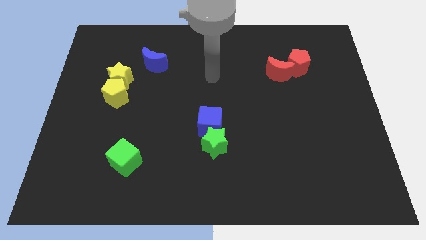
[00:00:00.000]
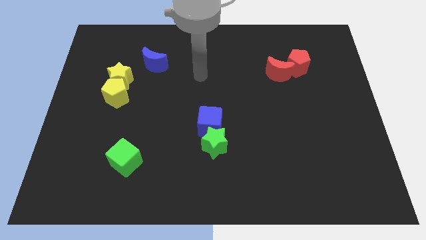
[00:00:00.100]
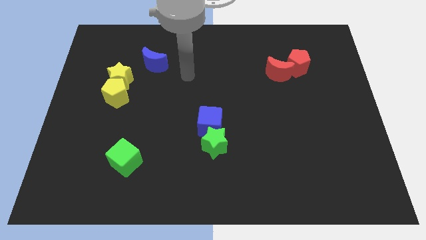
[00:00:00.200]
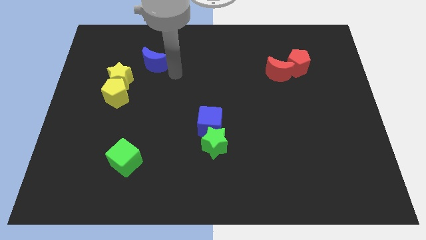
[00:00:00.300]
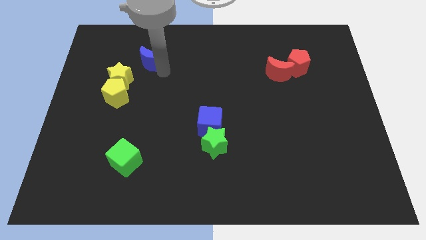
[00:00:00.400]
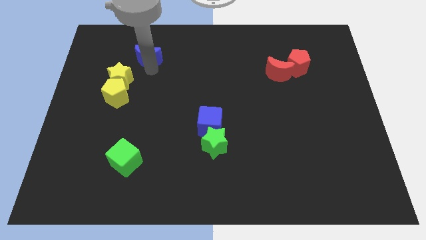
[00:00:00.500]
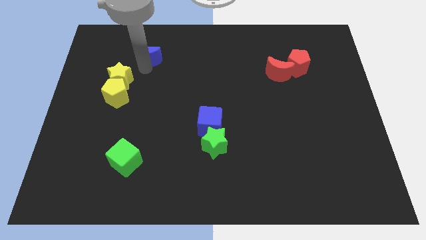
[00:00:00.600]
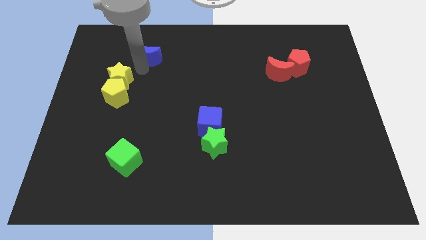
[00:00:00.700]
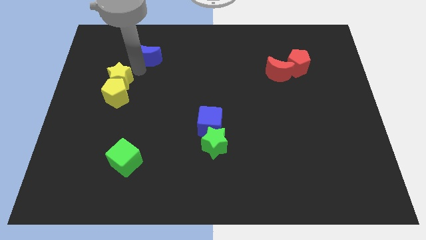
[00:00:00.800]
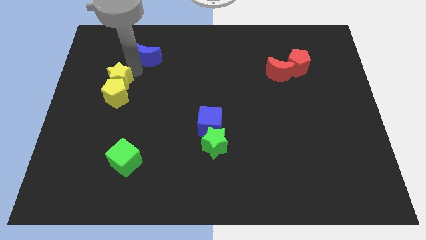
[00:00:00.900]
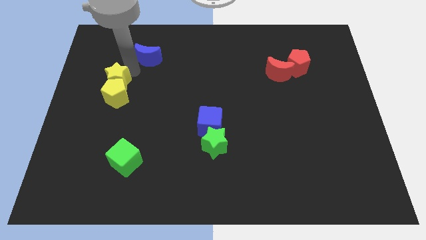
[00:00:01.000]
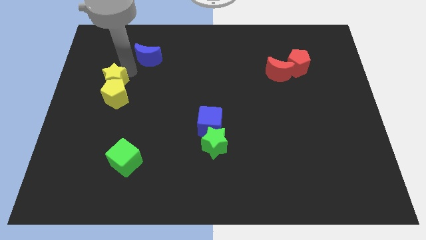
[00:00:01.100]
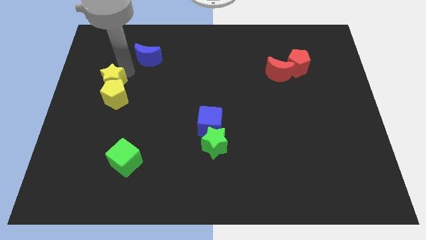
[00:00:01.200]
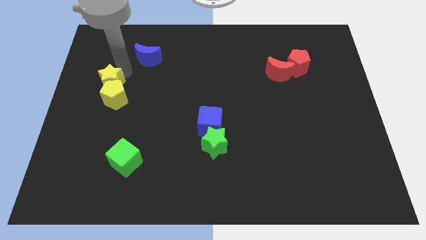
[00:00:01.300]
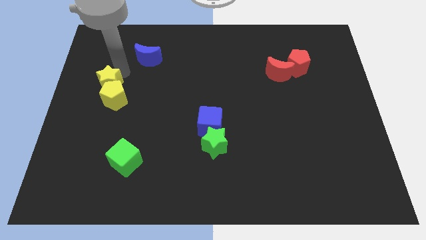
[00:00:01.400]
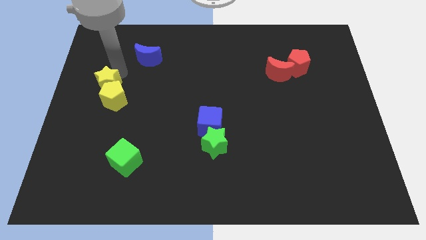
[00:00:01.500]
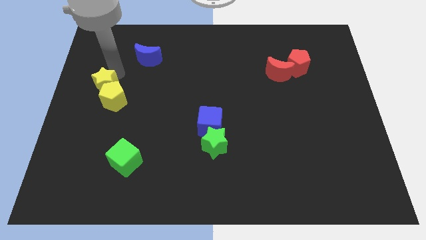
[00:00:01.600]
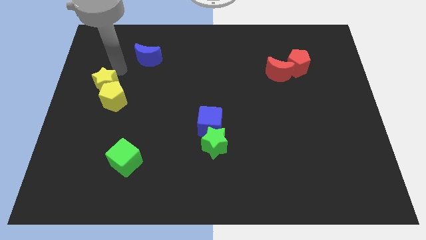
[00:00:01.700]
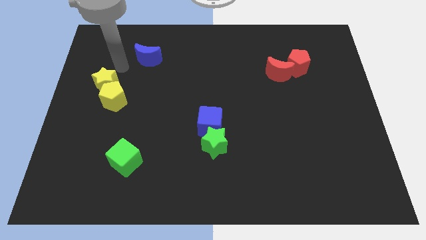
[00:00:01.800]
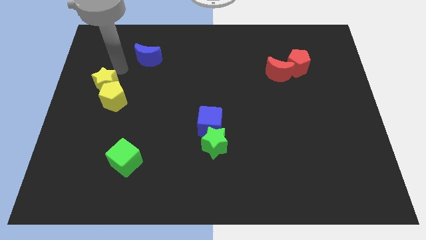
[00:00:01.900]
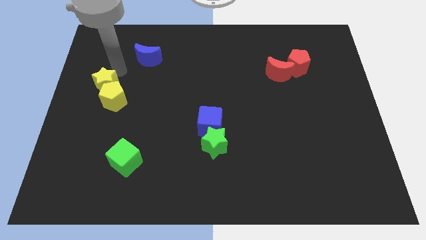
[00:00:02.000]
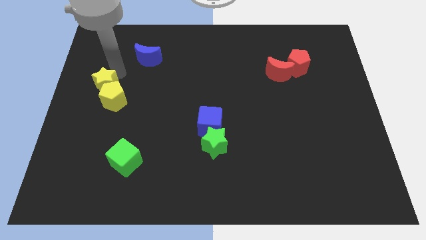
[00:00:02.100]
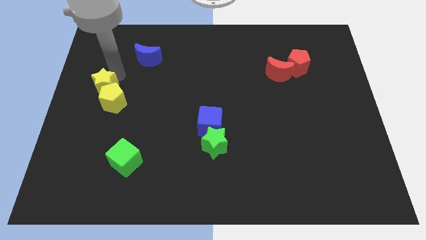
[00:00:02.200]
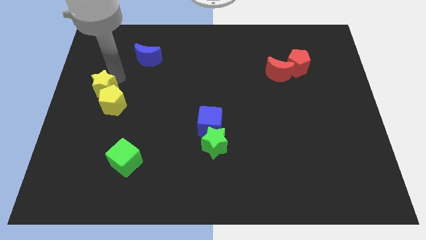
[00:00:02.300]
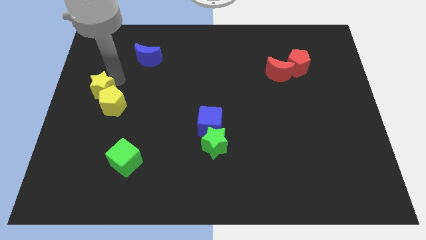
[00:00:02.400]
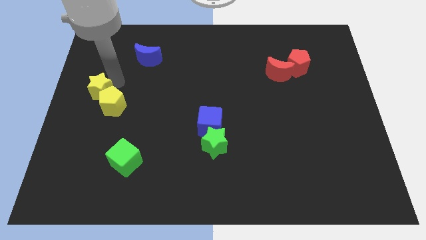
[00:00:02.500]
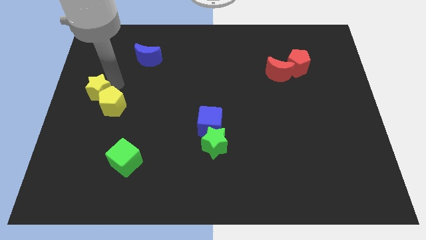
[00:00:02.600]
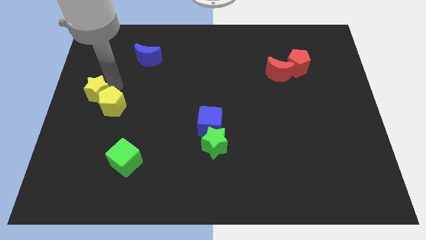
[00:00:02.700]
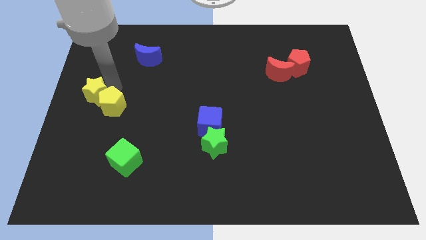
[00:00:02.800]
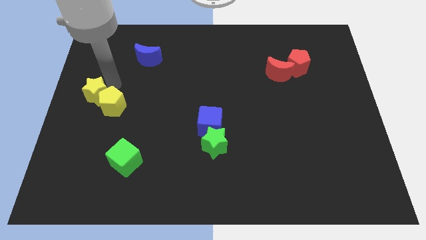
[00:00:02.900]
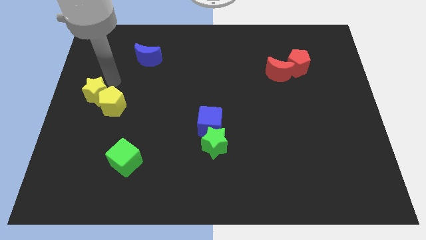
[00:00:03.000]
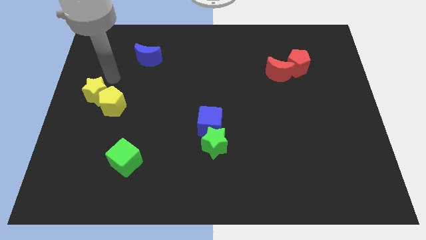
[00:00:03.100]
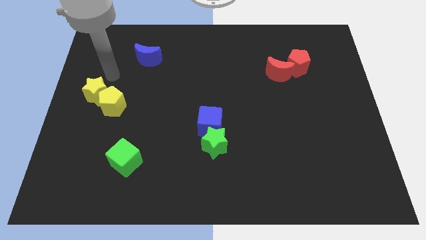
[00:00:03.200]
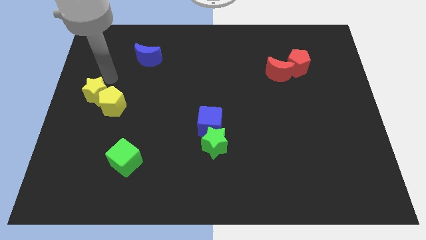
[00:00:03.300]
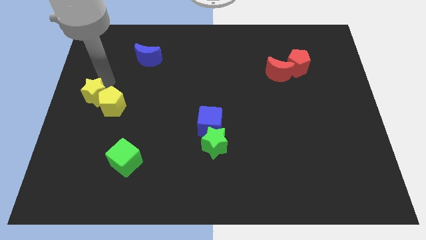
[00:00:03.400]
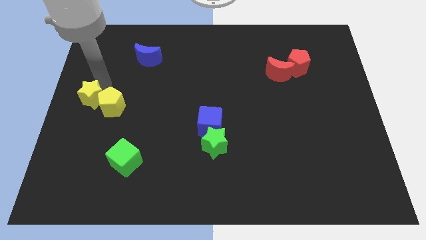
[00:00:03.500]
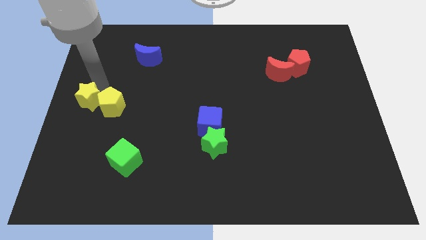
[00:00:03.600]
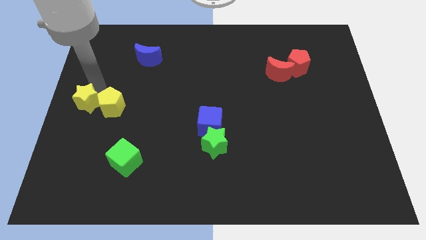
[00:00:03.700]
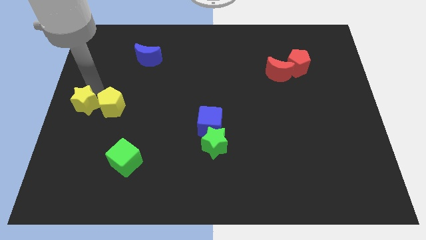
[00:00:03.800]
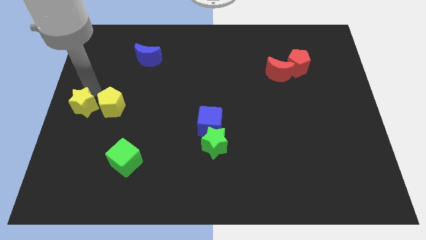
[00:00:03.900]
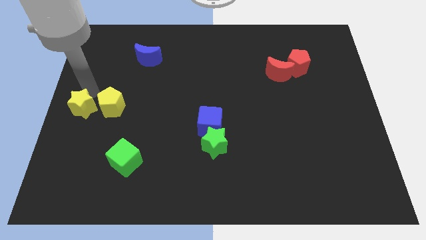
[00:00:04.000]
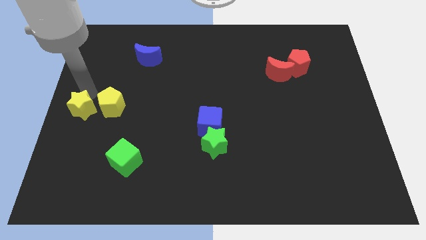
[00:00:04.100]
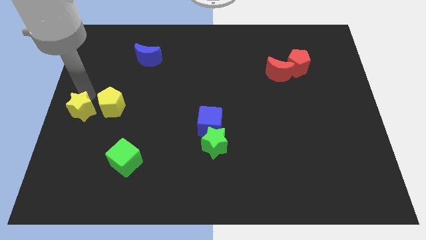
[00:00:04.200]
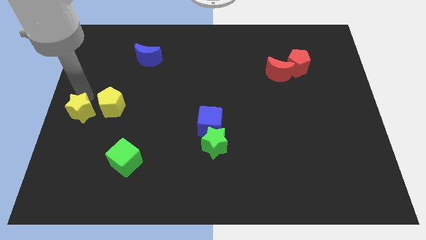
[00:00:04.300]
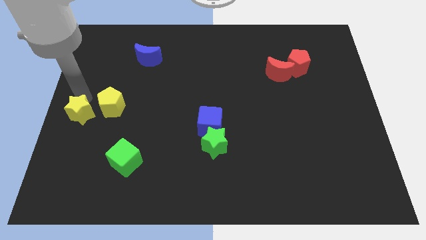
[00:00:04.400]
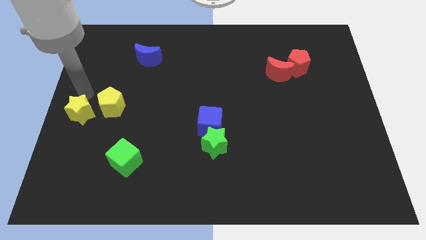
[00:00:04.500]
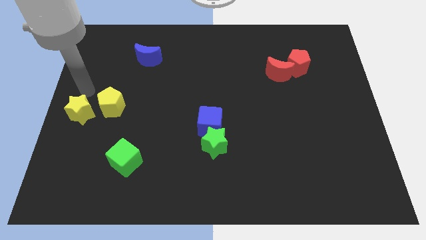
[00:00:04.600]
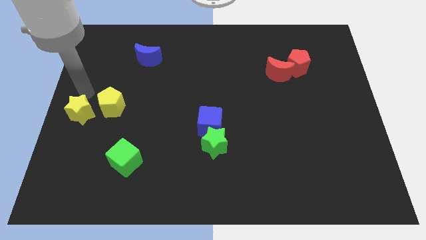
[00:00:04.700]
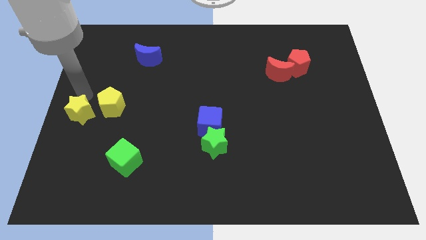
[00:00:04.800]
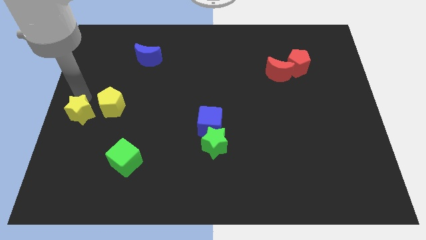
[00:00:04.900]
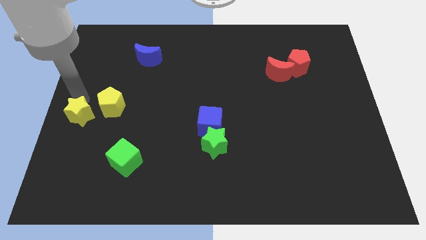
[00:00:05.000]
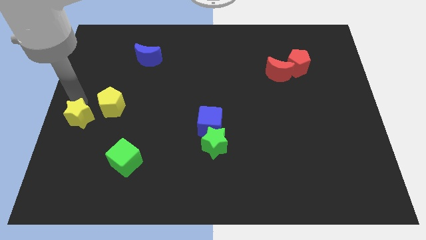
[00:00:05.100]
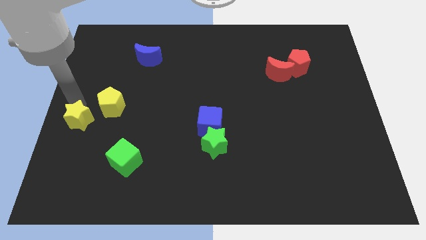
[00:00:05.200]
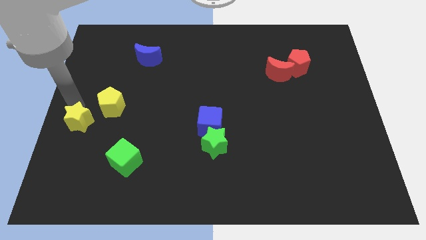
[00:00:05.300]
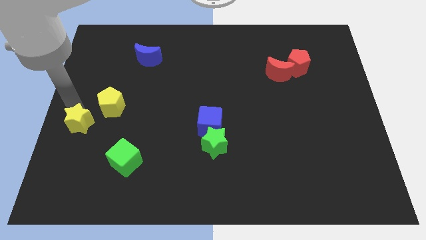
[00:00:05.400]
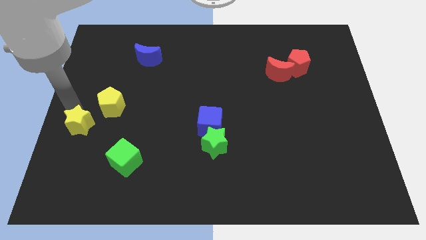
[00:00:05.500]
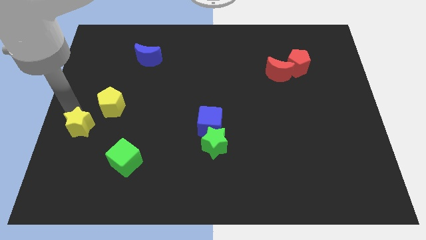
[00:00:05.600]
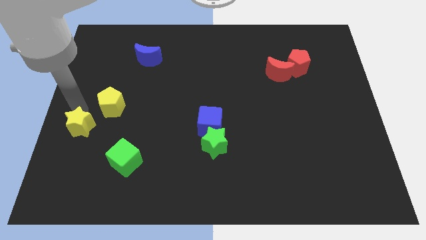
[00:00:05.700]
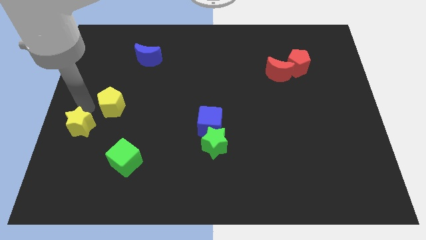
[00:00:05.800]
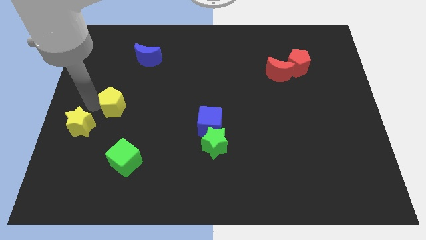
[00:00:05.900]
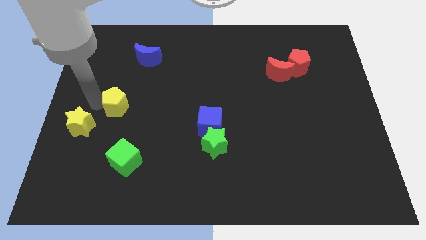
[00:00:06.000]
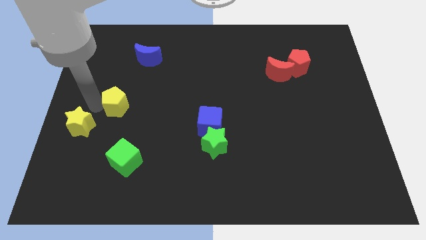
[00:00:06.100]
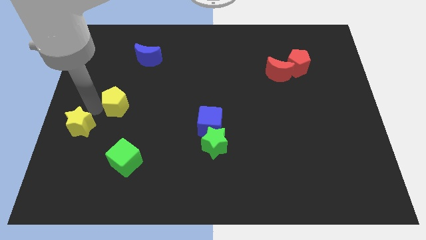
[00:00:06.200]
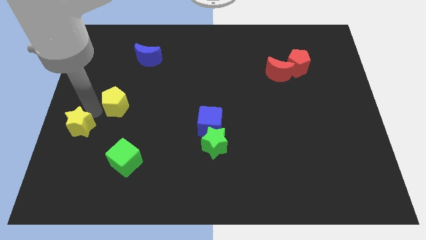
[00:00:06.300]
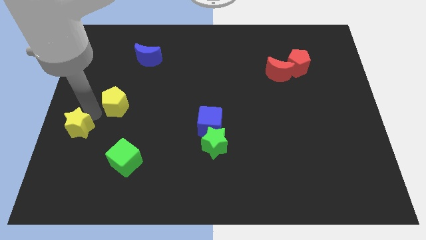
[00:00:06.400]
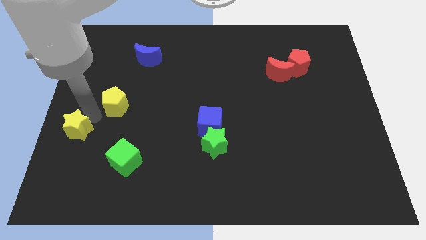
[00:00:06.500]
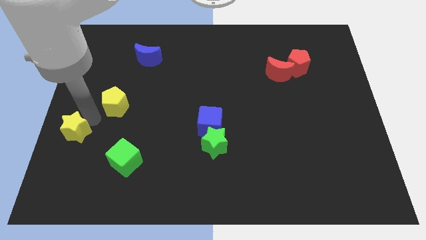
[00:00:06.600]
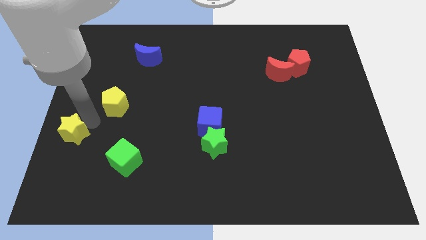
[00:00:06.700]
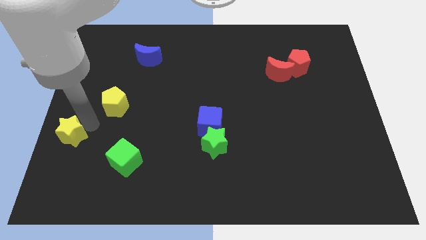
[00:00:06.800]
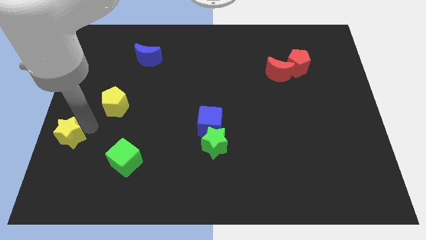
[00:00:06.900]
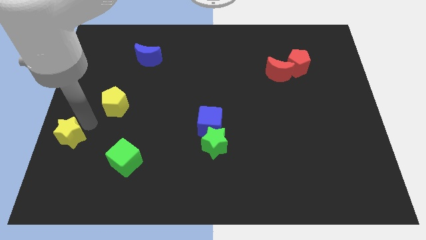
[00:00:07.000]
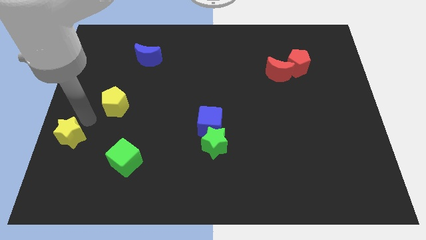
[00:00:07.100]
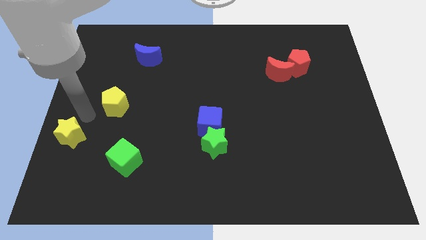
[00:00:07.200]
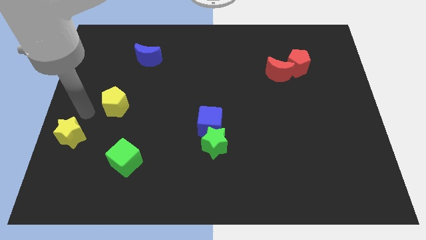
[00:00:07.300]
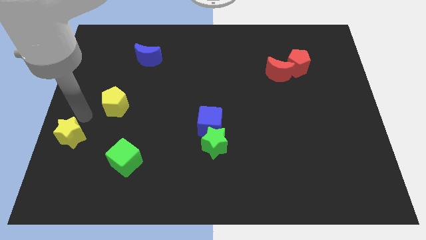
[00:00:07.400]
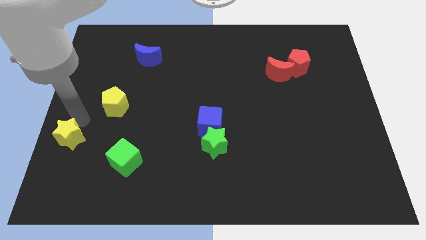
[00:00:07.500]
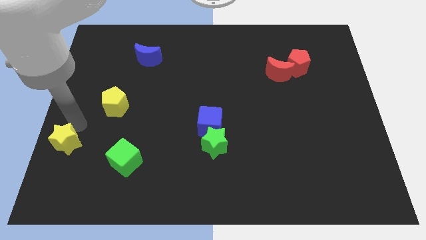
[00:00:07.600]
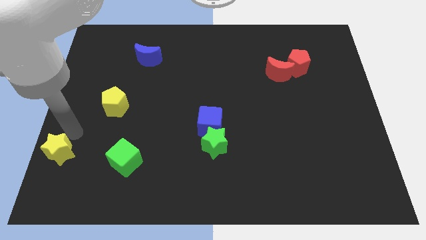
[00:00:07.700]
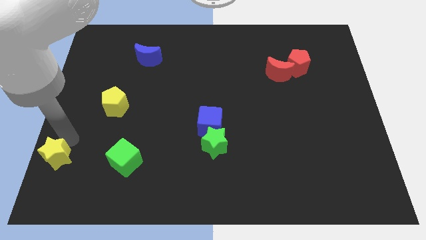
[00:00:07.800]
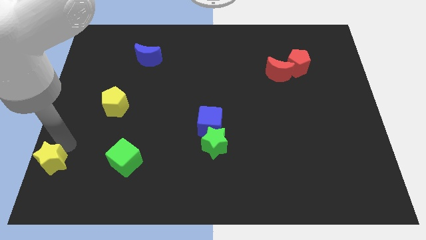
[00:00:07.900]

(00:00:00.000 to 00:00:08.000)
slide the yellow star to the bottom left corner
